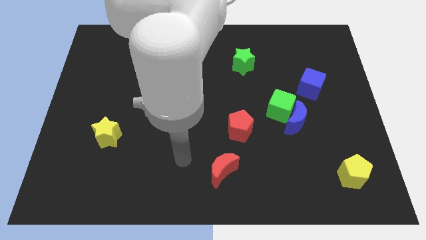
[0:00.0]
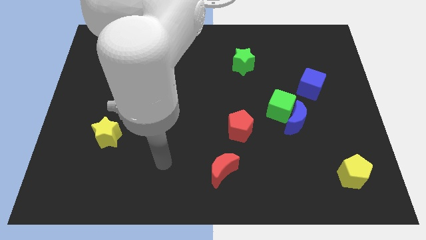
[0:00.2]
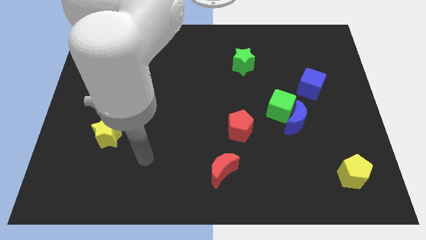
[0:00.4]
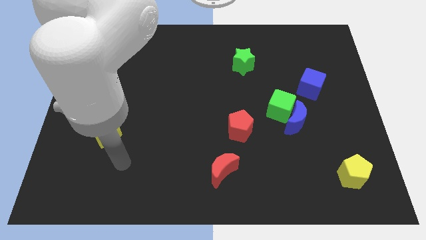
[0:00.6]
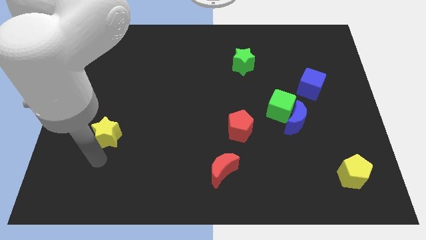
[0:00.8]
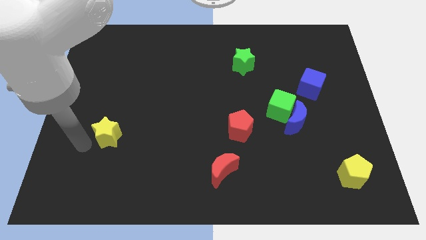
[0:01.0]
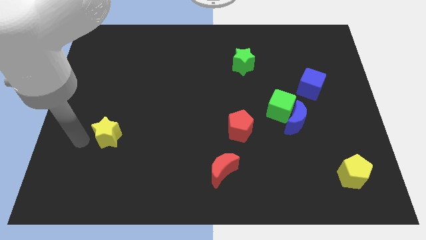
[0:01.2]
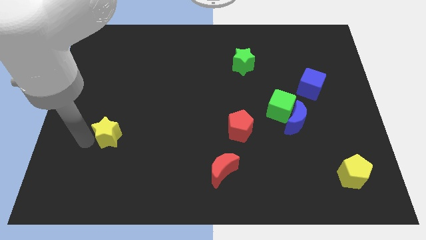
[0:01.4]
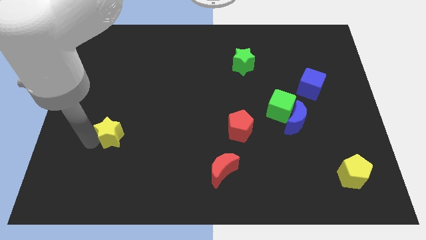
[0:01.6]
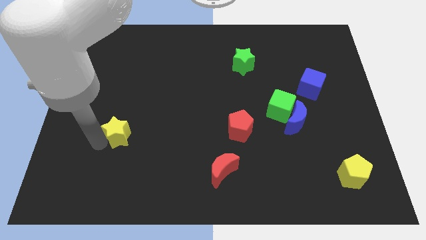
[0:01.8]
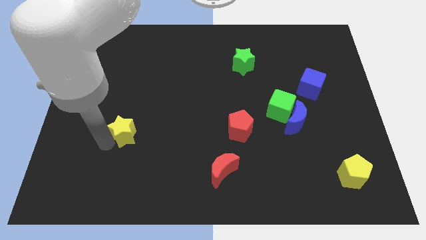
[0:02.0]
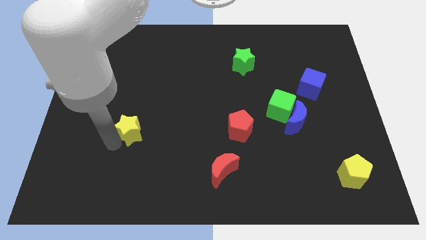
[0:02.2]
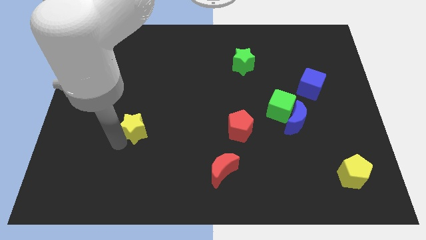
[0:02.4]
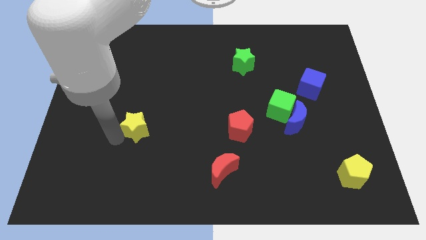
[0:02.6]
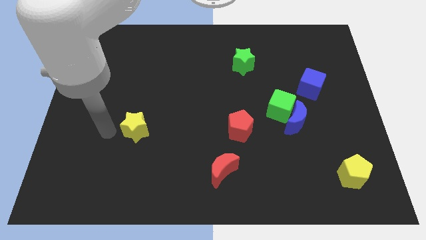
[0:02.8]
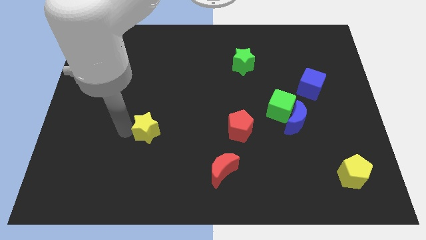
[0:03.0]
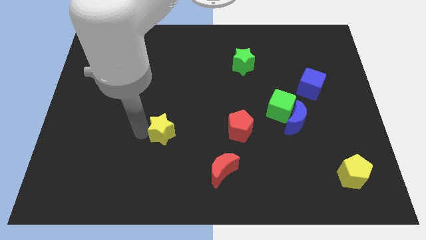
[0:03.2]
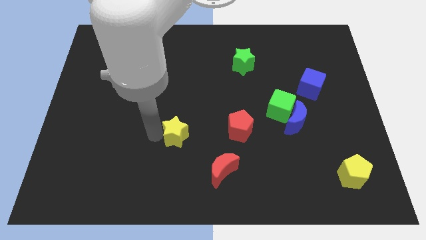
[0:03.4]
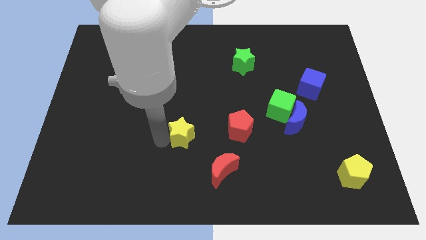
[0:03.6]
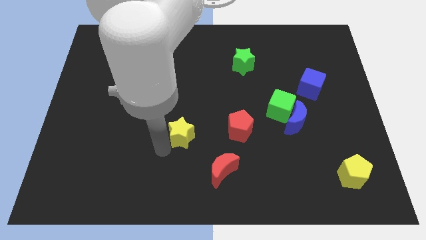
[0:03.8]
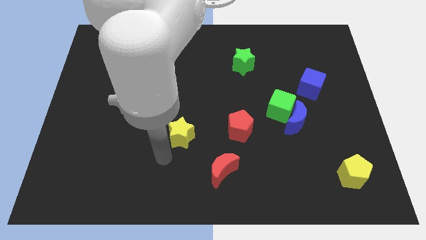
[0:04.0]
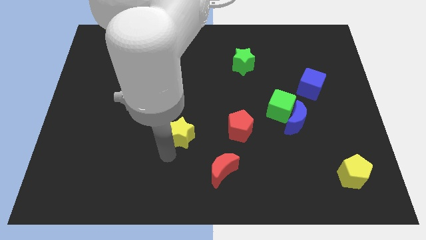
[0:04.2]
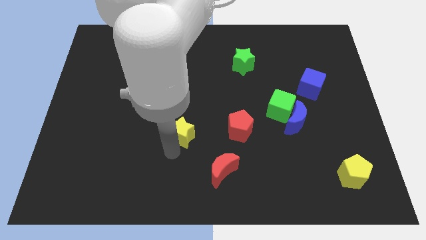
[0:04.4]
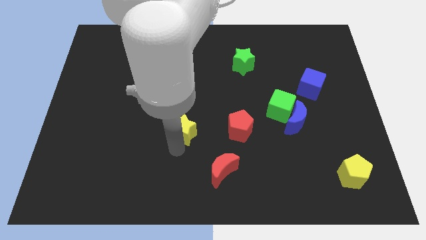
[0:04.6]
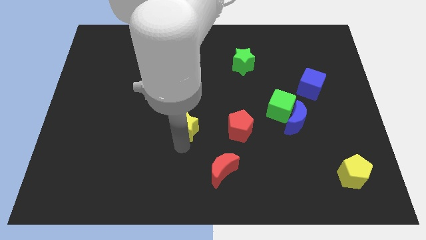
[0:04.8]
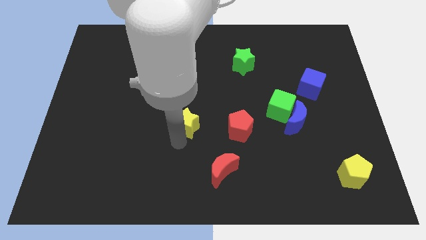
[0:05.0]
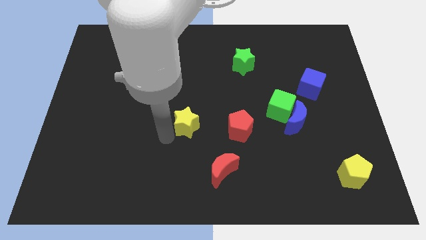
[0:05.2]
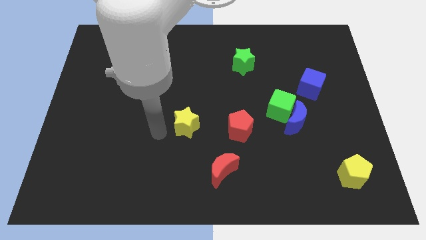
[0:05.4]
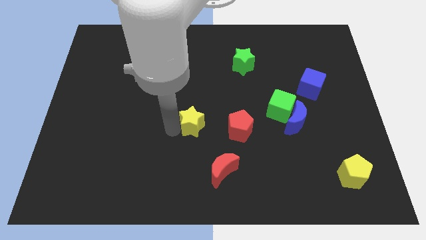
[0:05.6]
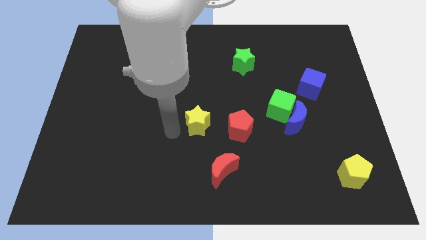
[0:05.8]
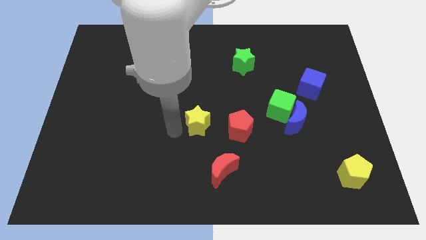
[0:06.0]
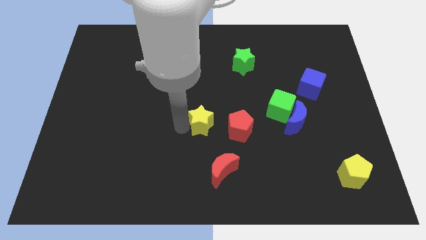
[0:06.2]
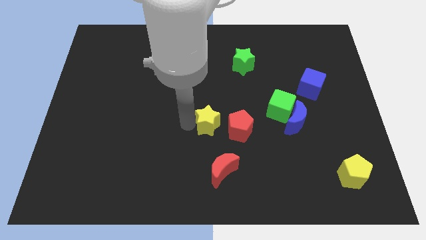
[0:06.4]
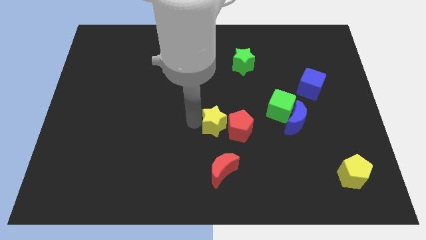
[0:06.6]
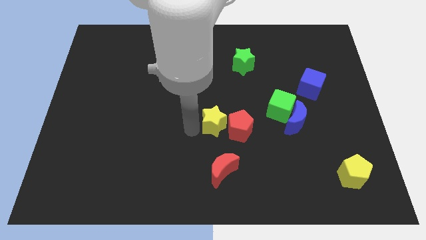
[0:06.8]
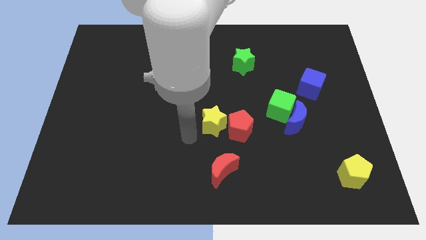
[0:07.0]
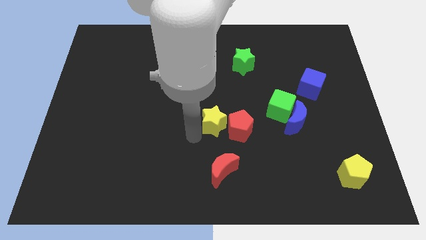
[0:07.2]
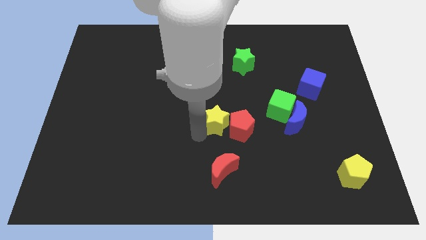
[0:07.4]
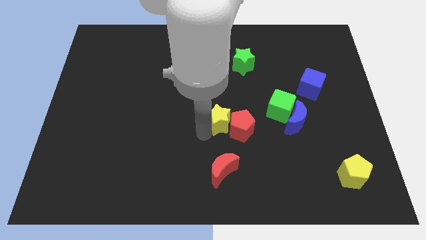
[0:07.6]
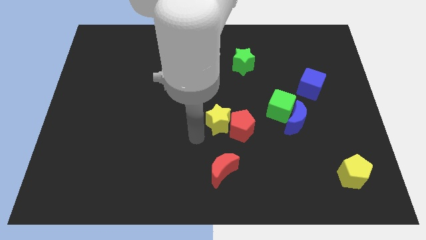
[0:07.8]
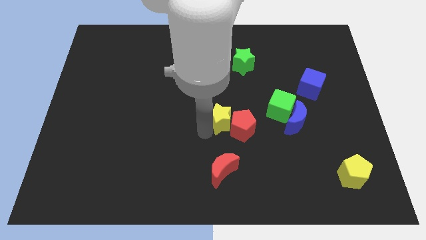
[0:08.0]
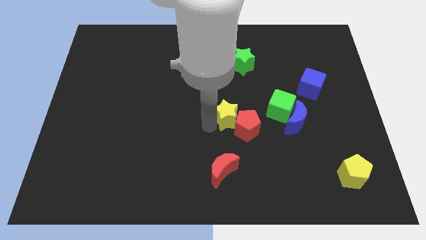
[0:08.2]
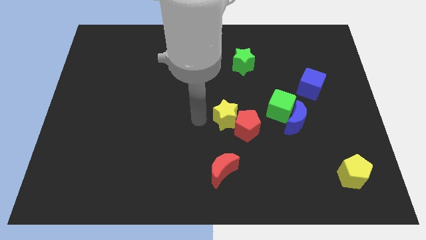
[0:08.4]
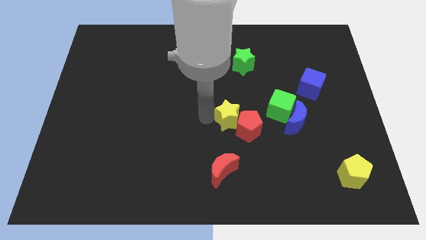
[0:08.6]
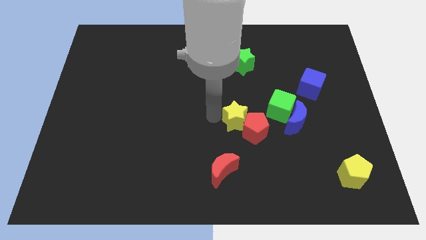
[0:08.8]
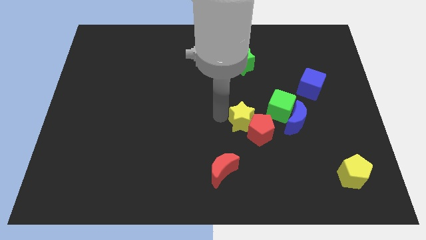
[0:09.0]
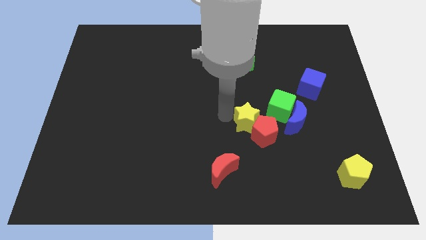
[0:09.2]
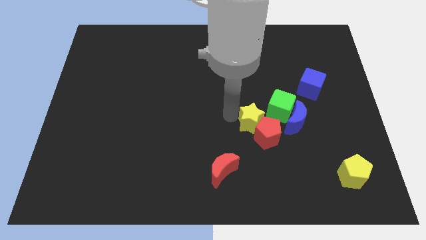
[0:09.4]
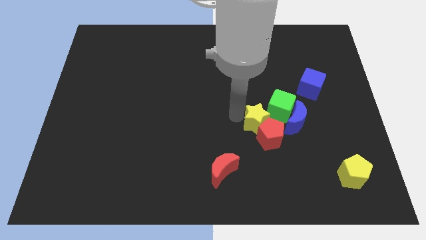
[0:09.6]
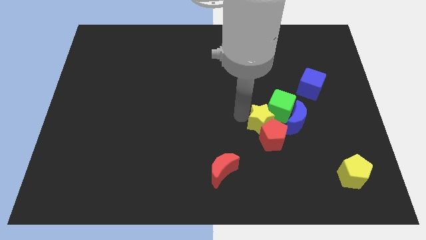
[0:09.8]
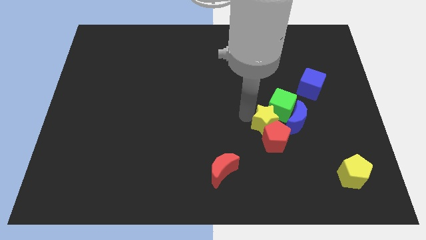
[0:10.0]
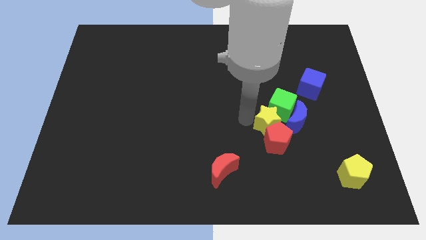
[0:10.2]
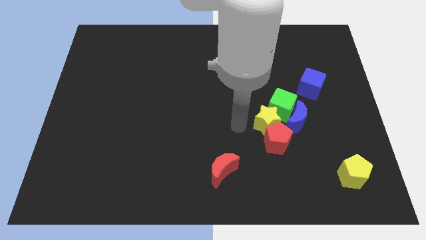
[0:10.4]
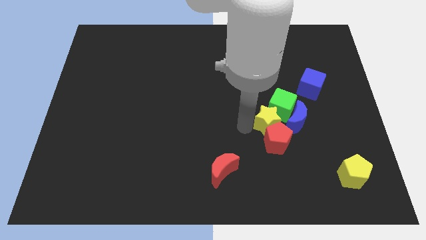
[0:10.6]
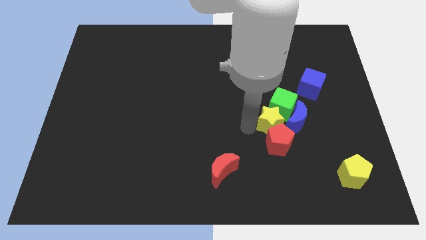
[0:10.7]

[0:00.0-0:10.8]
move the yellow star next to the blue moon

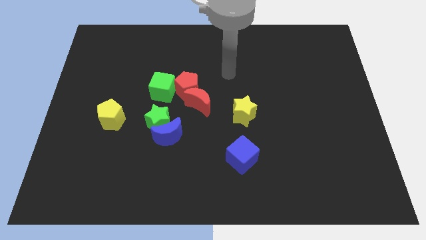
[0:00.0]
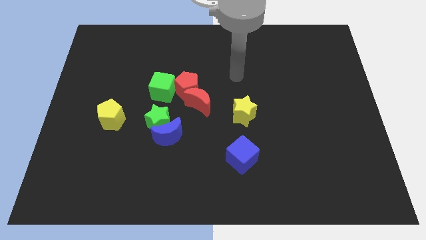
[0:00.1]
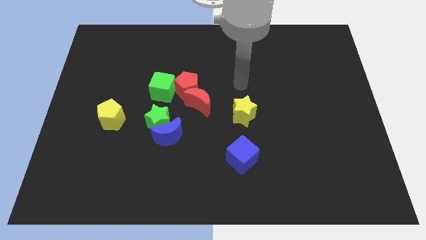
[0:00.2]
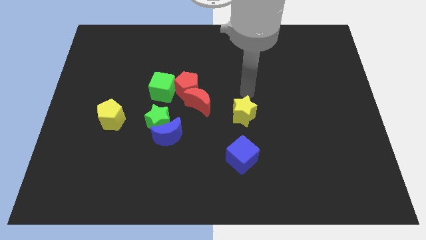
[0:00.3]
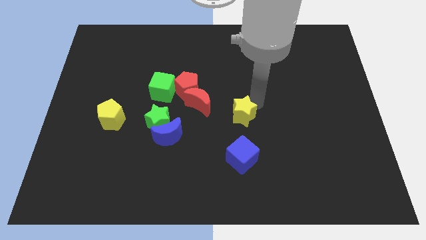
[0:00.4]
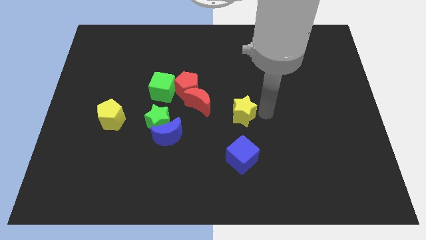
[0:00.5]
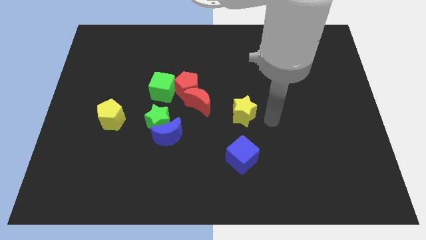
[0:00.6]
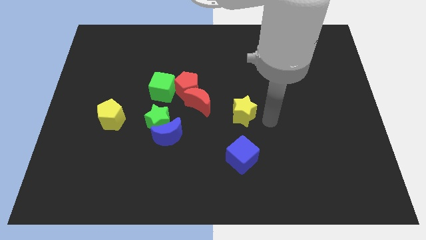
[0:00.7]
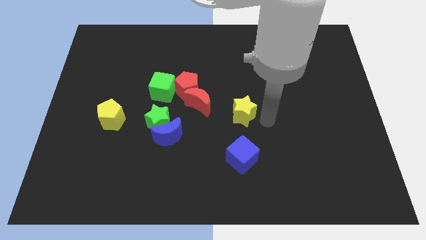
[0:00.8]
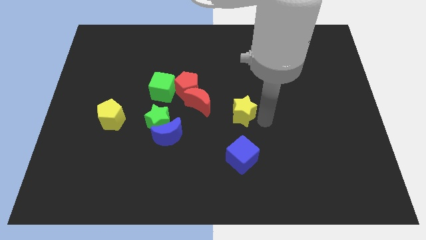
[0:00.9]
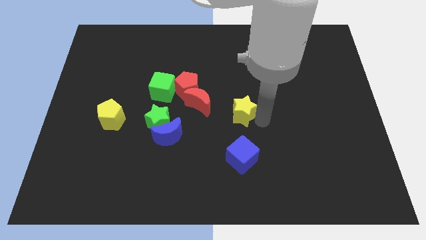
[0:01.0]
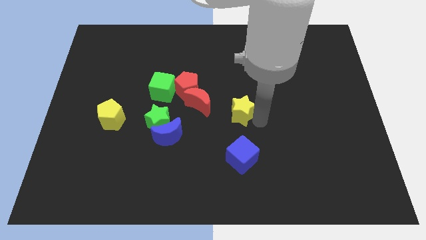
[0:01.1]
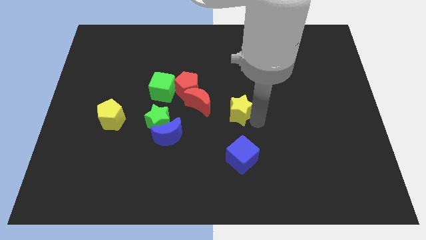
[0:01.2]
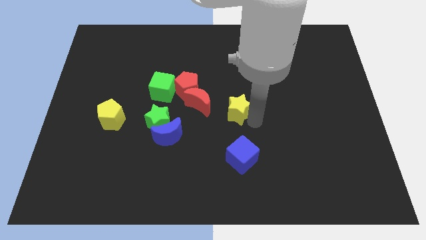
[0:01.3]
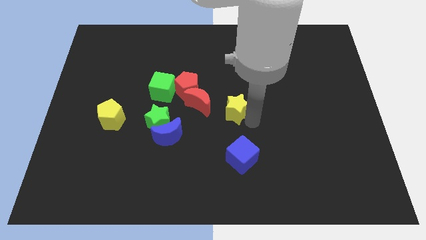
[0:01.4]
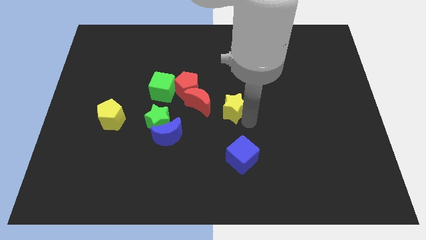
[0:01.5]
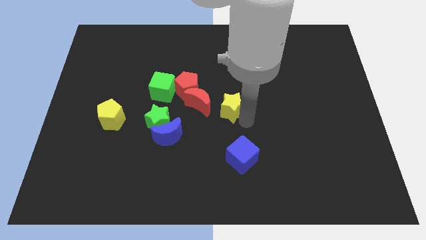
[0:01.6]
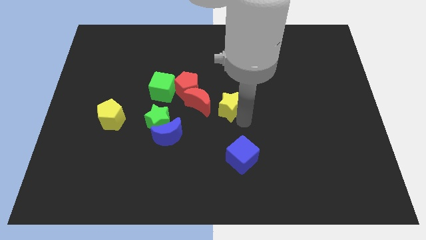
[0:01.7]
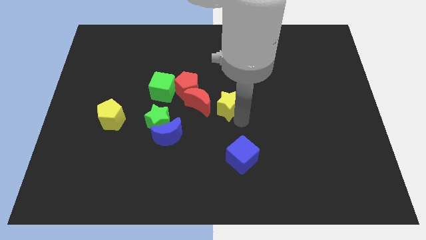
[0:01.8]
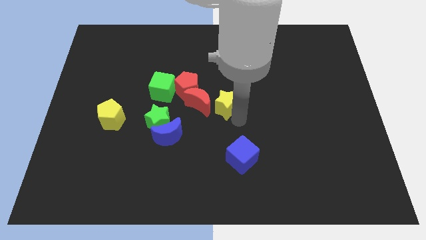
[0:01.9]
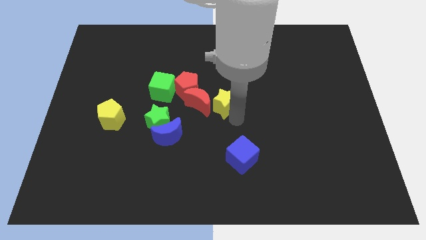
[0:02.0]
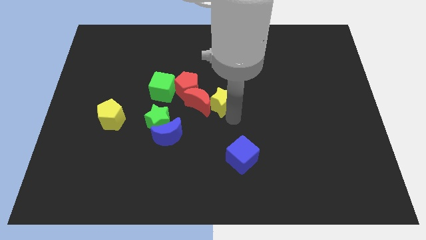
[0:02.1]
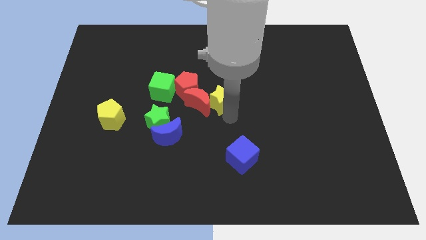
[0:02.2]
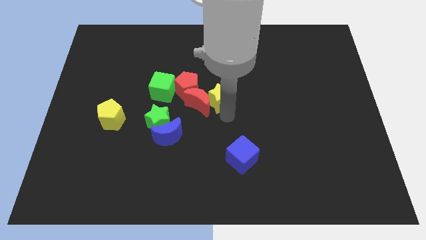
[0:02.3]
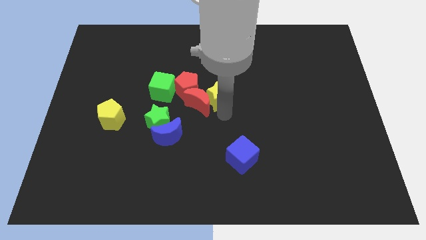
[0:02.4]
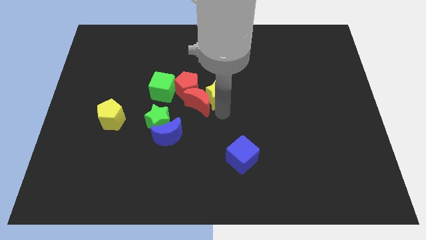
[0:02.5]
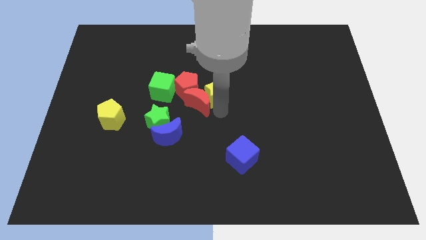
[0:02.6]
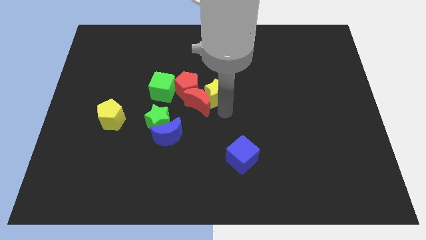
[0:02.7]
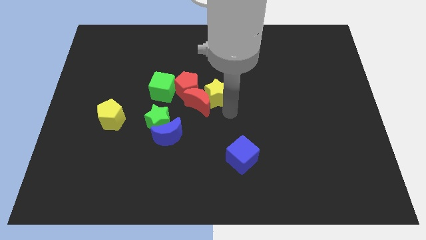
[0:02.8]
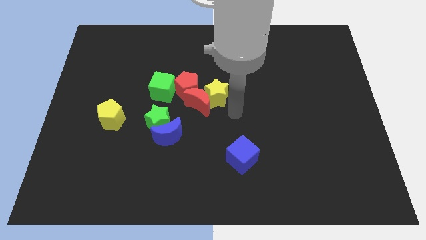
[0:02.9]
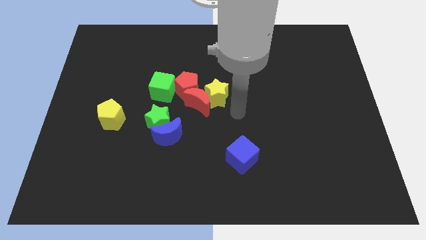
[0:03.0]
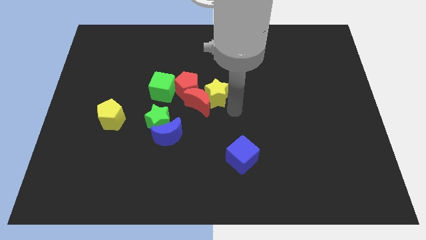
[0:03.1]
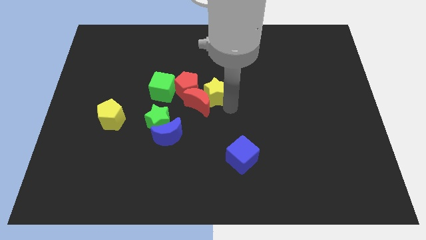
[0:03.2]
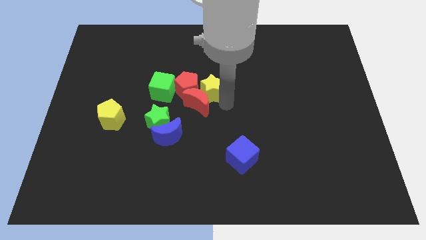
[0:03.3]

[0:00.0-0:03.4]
slide the yellow star next to the red pentagon
